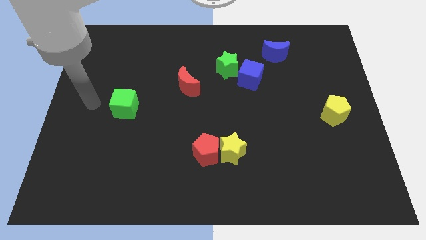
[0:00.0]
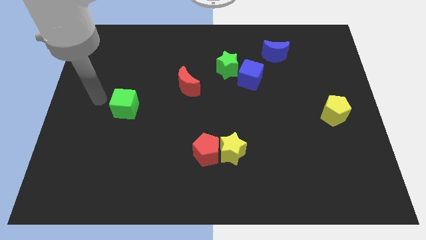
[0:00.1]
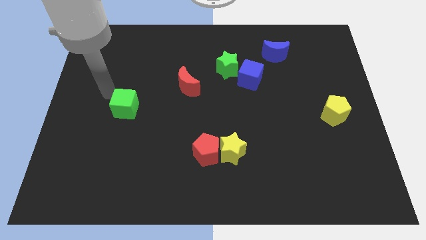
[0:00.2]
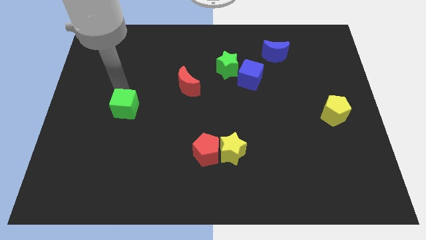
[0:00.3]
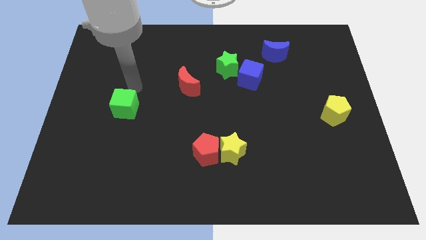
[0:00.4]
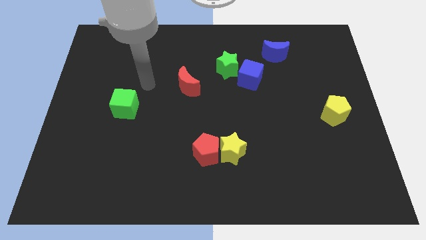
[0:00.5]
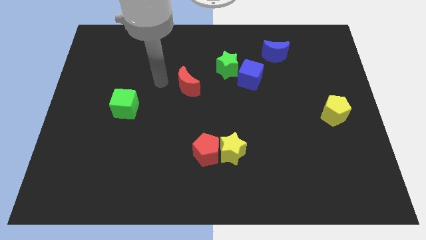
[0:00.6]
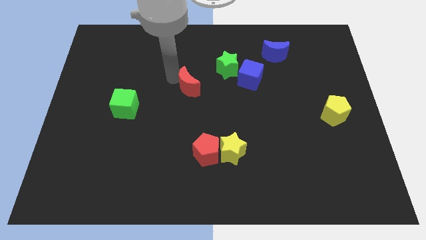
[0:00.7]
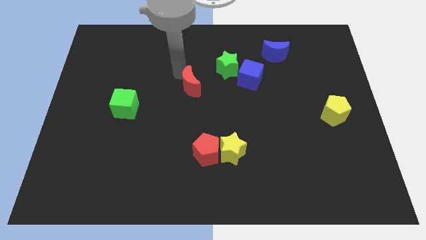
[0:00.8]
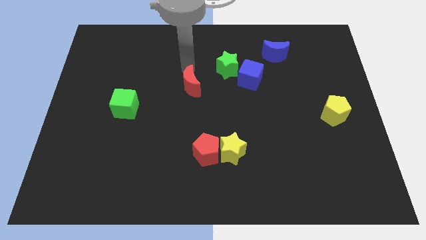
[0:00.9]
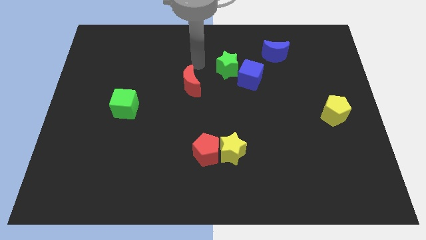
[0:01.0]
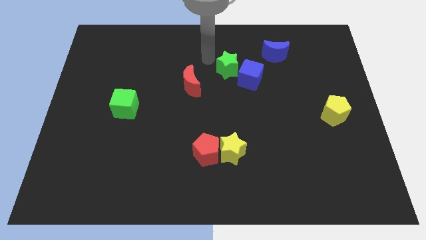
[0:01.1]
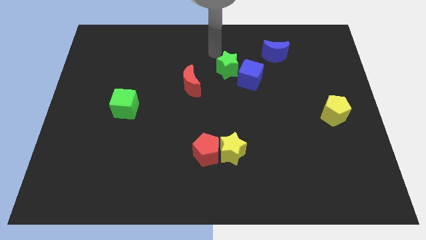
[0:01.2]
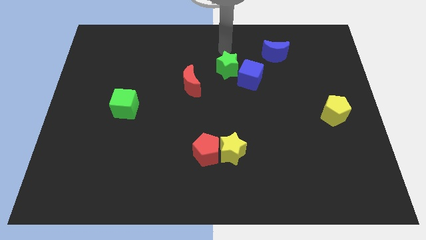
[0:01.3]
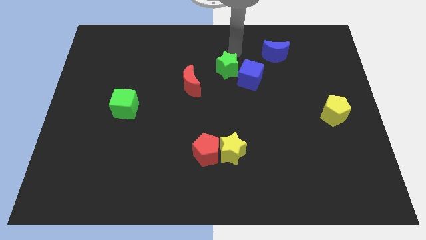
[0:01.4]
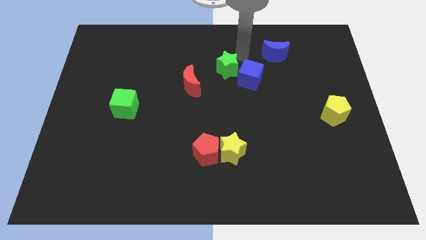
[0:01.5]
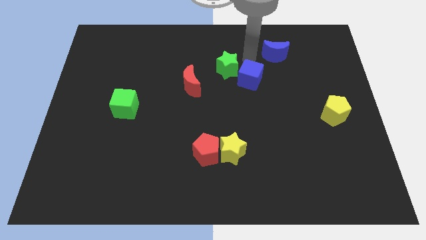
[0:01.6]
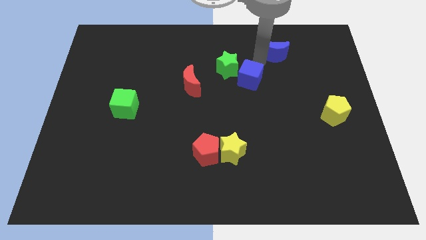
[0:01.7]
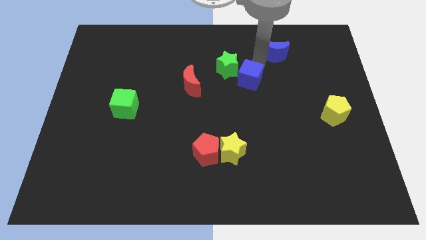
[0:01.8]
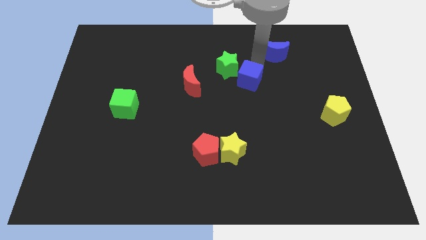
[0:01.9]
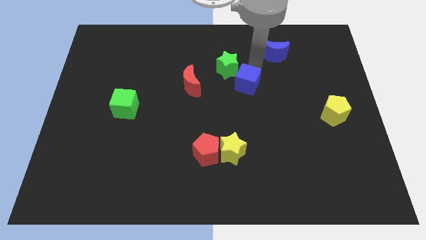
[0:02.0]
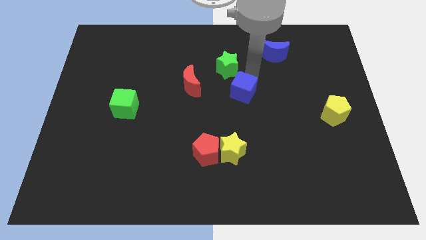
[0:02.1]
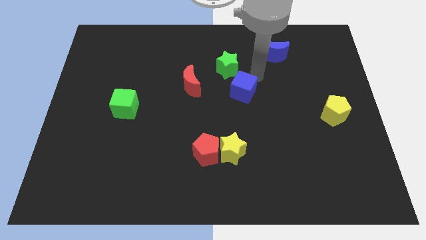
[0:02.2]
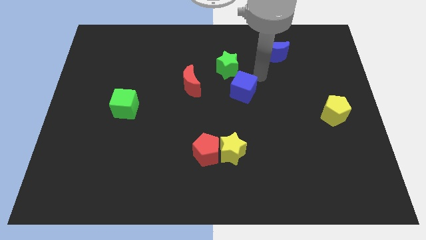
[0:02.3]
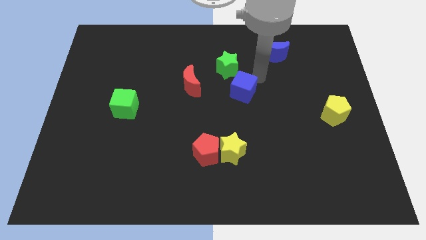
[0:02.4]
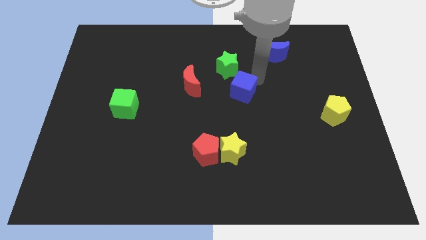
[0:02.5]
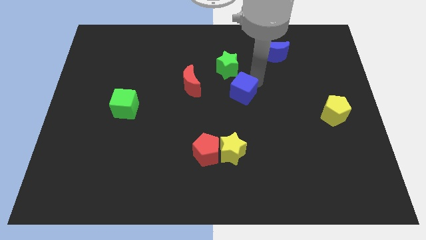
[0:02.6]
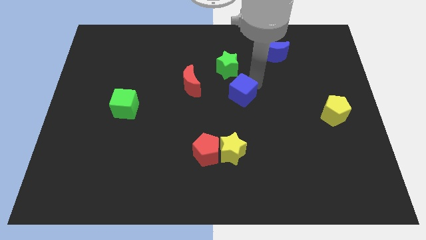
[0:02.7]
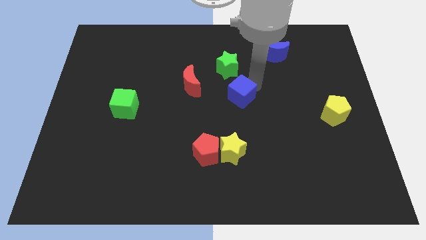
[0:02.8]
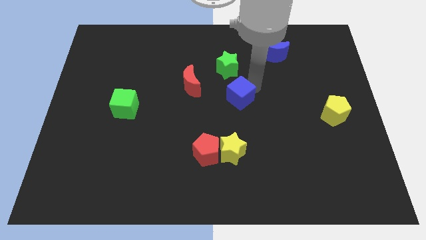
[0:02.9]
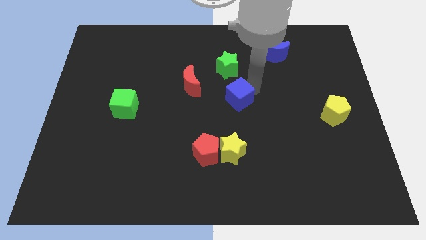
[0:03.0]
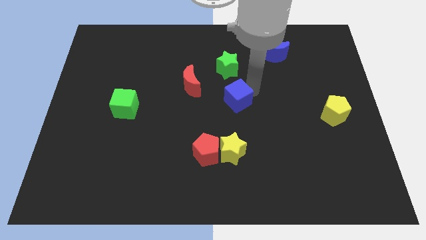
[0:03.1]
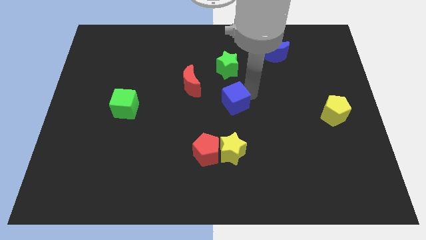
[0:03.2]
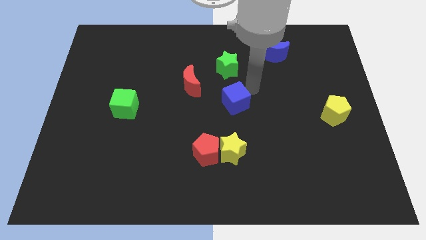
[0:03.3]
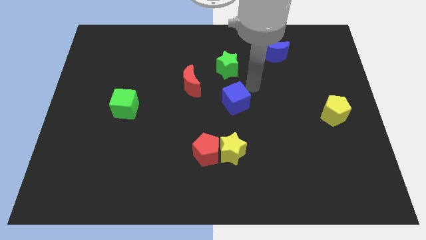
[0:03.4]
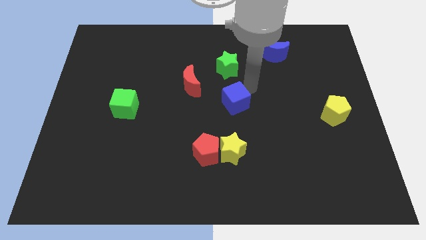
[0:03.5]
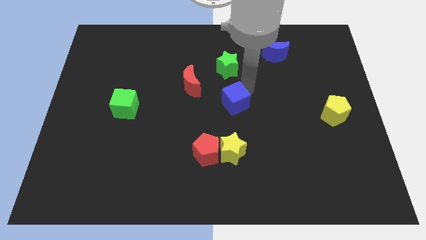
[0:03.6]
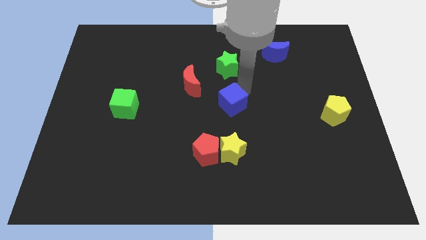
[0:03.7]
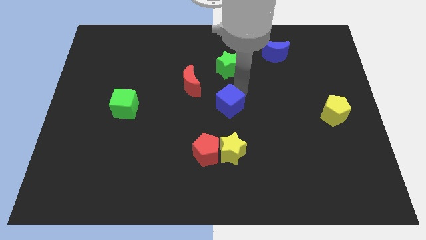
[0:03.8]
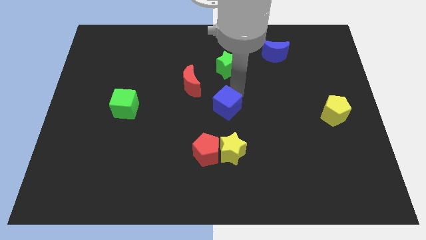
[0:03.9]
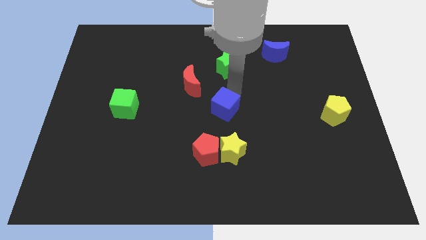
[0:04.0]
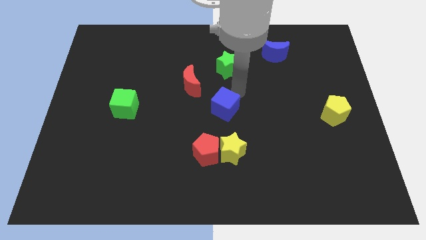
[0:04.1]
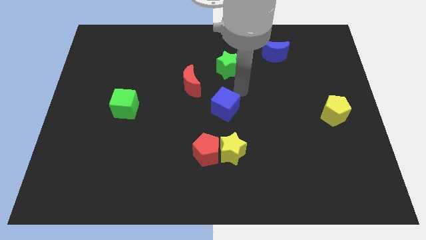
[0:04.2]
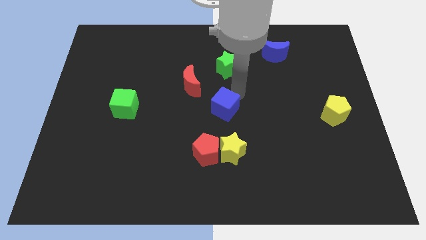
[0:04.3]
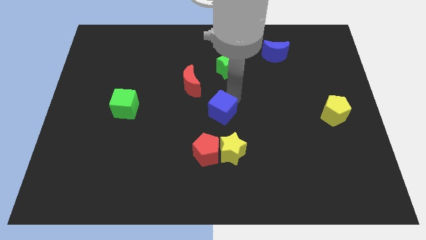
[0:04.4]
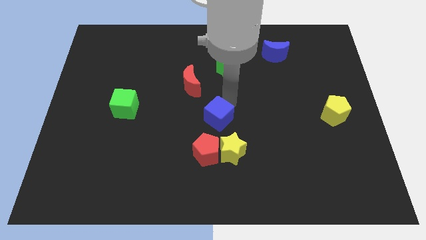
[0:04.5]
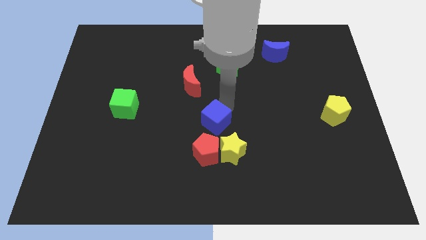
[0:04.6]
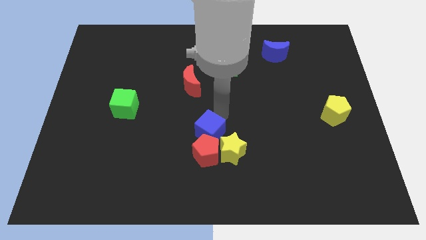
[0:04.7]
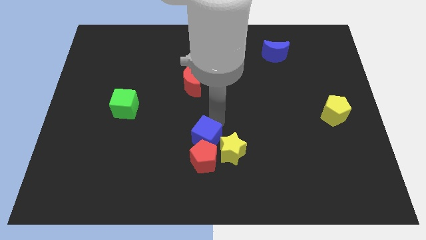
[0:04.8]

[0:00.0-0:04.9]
push the blue cube to the left side of the yellow star

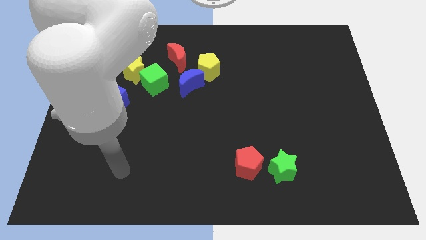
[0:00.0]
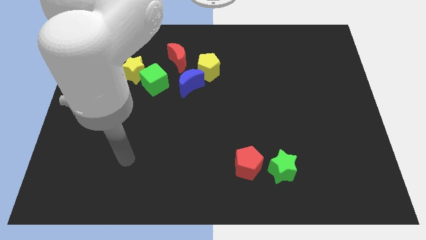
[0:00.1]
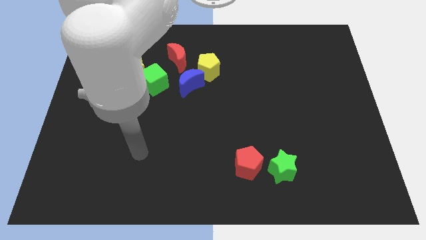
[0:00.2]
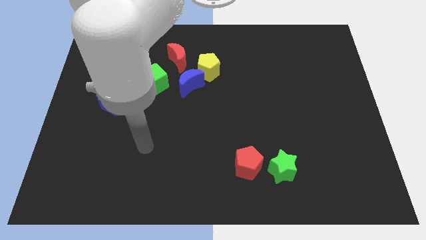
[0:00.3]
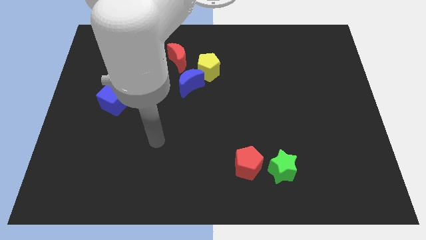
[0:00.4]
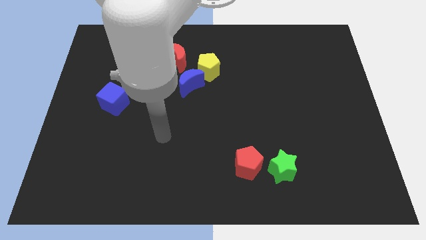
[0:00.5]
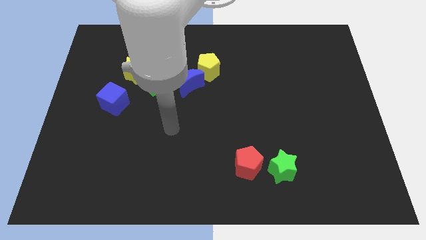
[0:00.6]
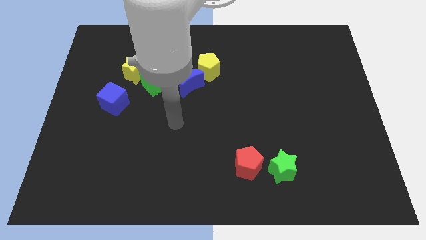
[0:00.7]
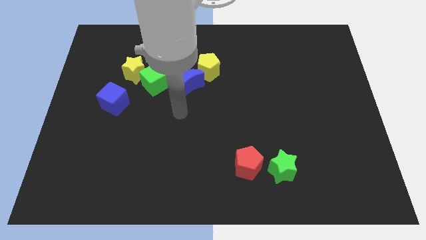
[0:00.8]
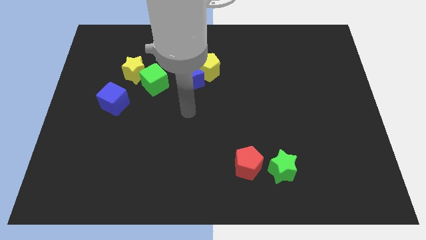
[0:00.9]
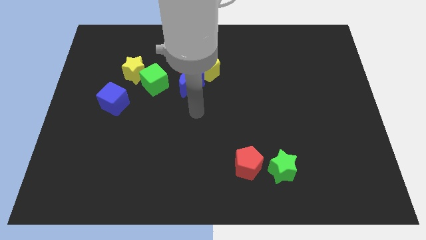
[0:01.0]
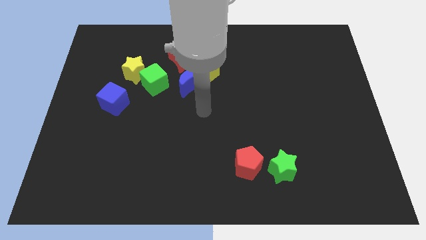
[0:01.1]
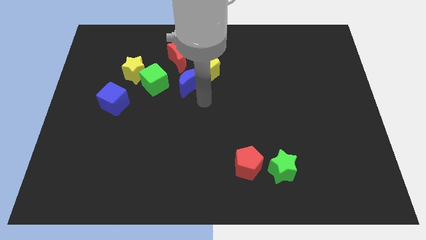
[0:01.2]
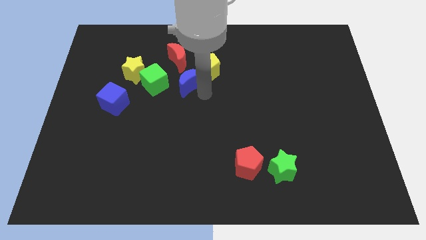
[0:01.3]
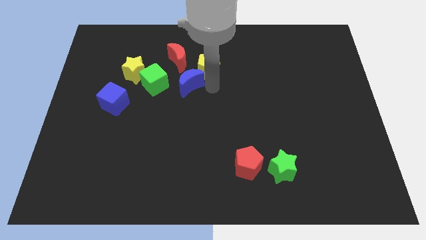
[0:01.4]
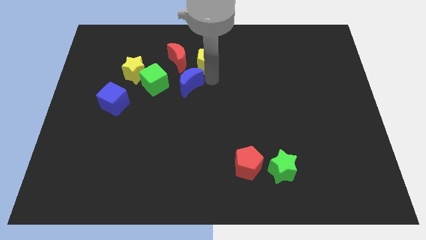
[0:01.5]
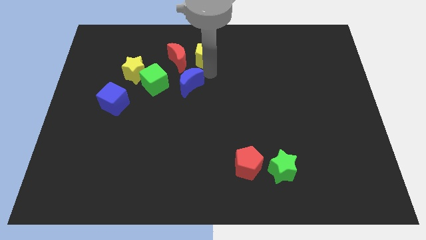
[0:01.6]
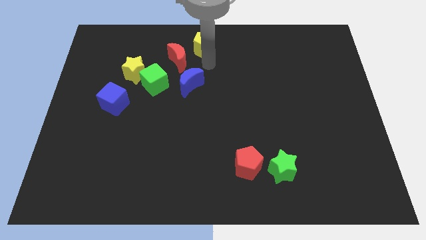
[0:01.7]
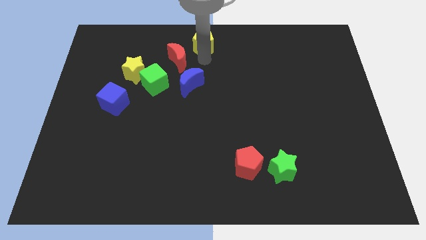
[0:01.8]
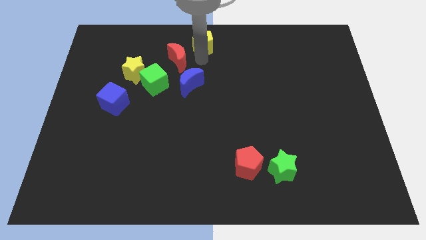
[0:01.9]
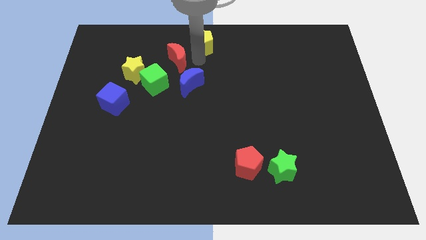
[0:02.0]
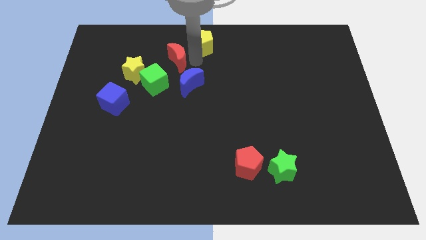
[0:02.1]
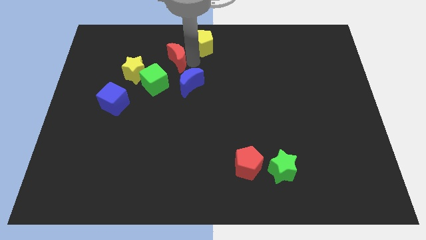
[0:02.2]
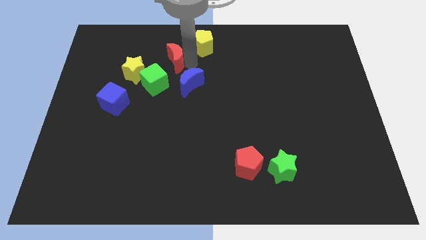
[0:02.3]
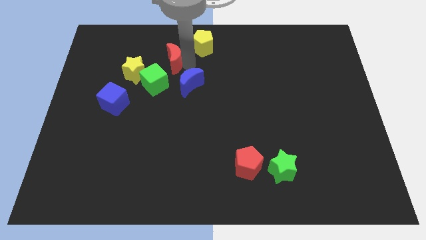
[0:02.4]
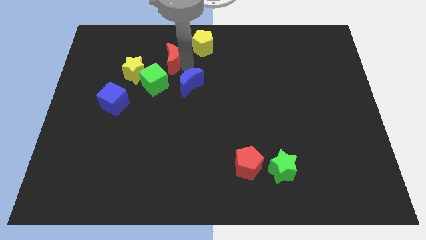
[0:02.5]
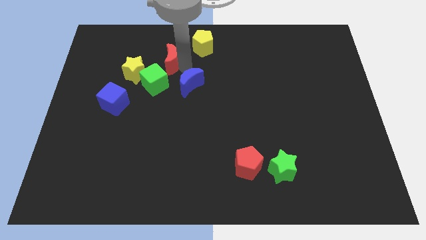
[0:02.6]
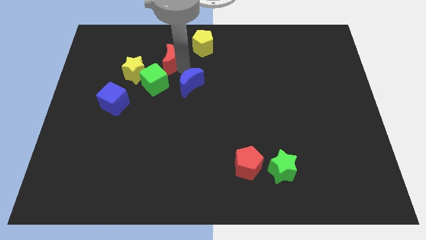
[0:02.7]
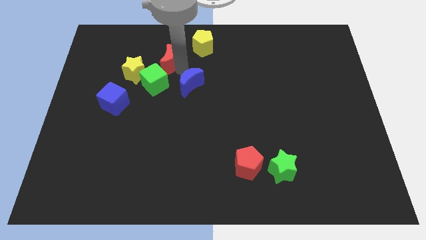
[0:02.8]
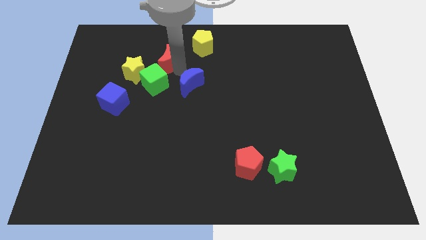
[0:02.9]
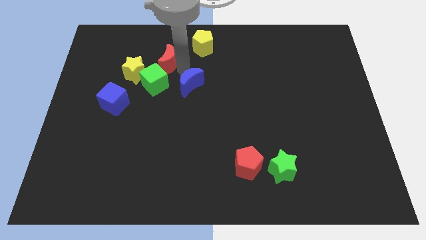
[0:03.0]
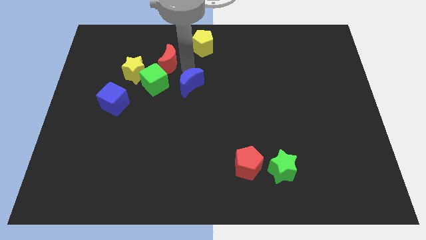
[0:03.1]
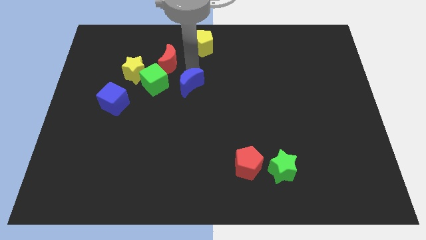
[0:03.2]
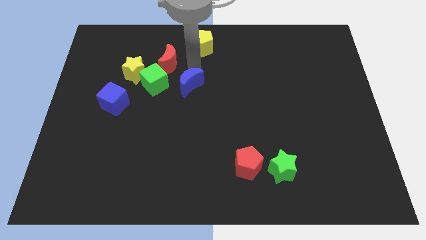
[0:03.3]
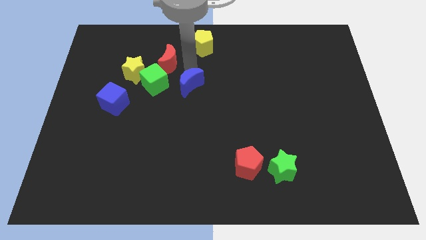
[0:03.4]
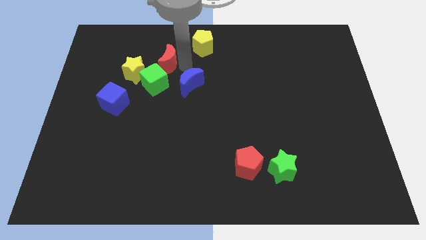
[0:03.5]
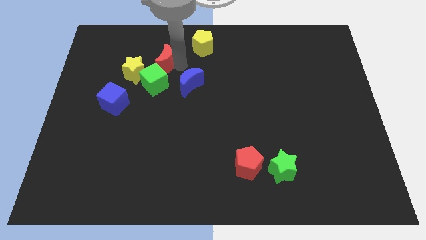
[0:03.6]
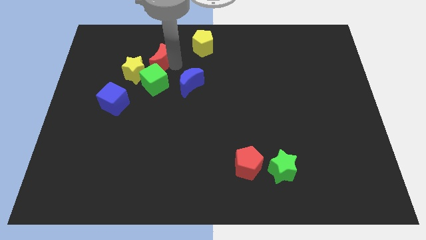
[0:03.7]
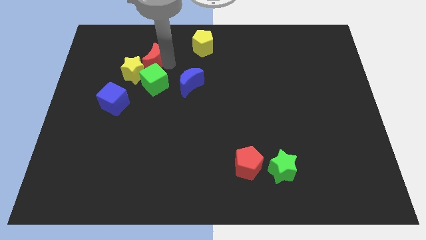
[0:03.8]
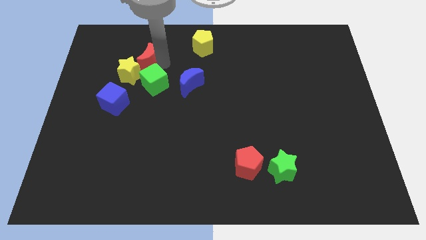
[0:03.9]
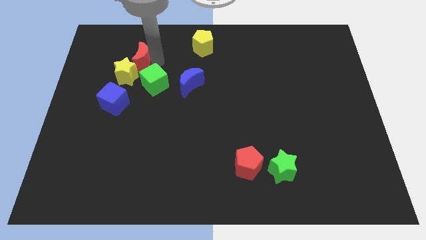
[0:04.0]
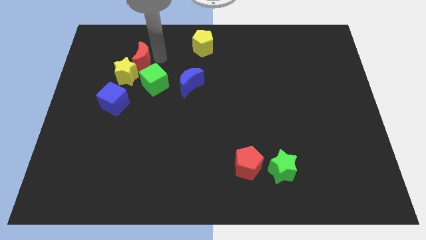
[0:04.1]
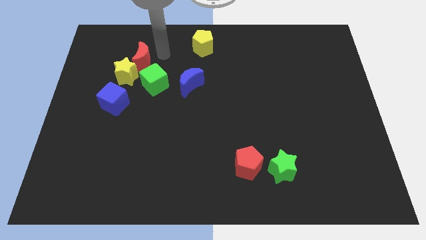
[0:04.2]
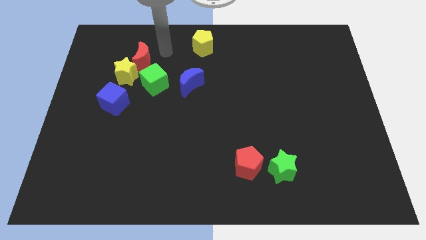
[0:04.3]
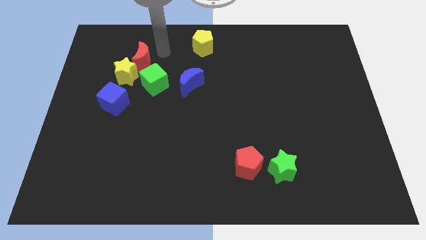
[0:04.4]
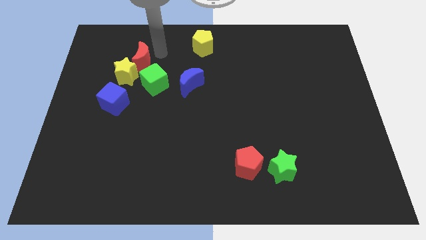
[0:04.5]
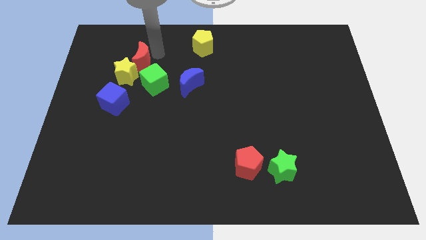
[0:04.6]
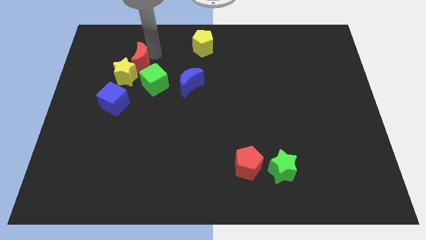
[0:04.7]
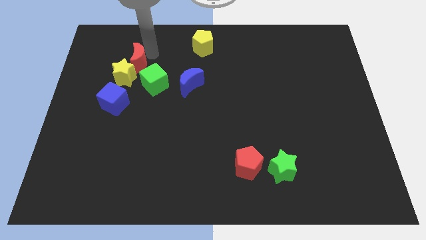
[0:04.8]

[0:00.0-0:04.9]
push the red moon to the top side of the blue cube
